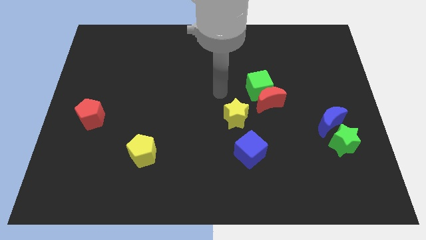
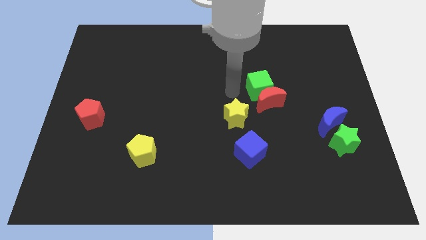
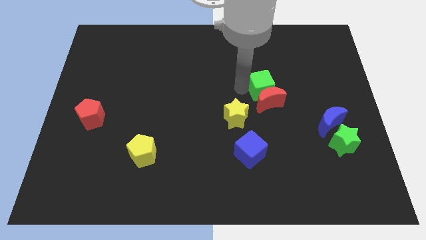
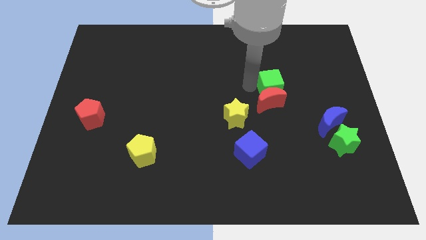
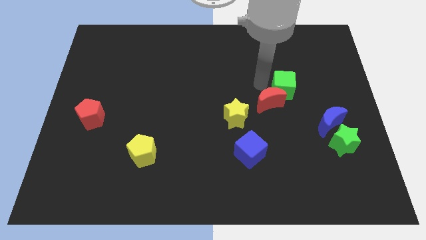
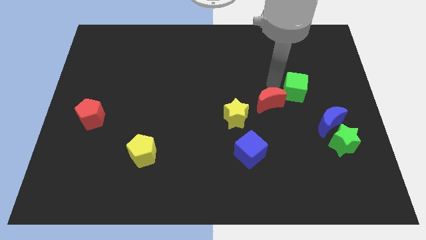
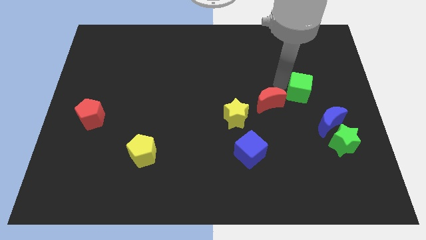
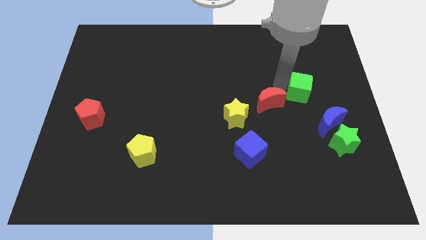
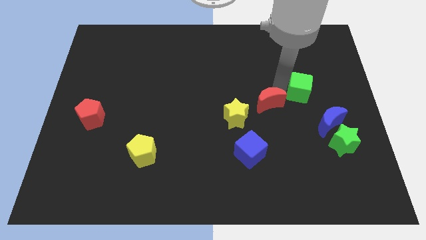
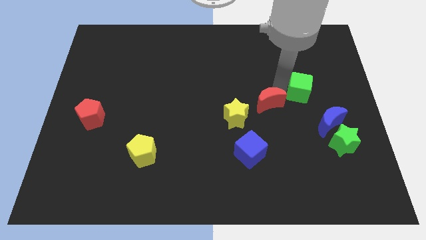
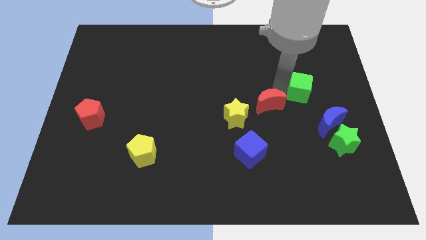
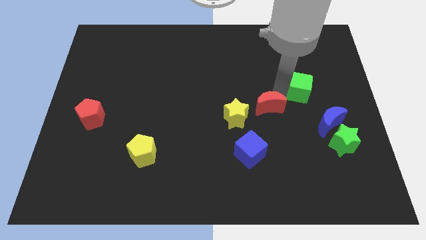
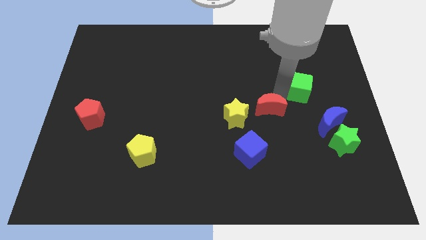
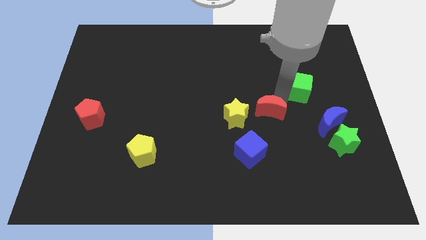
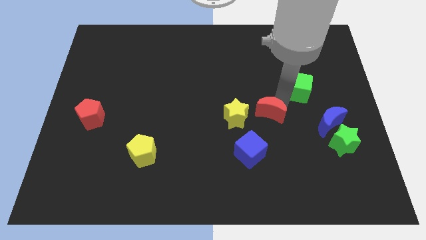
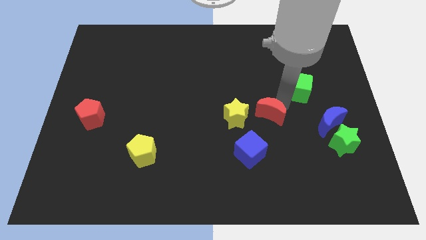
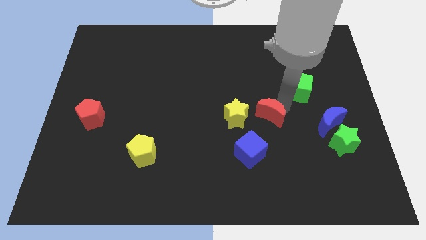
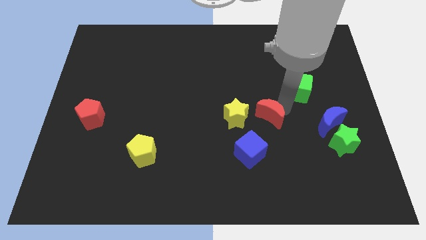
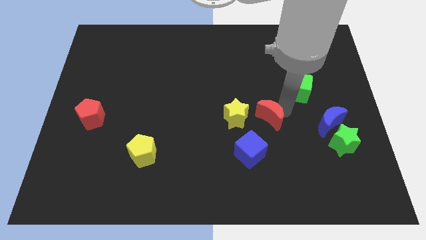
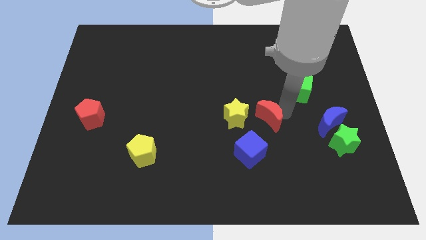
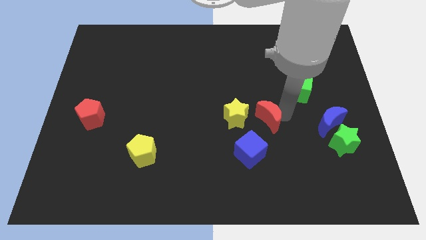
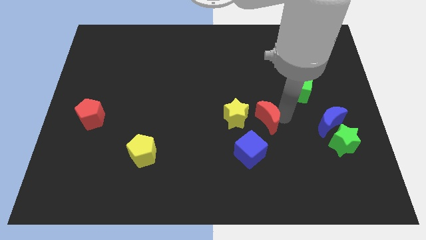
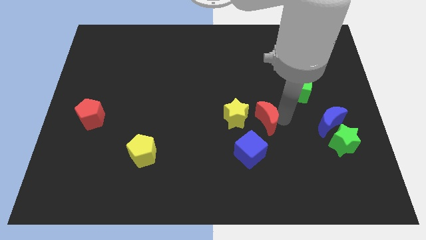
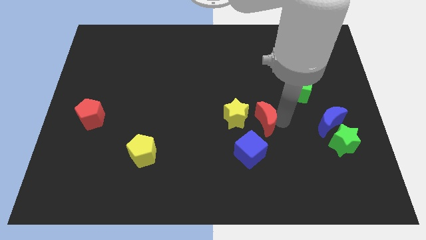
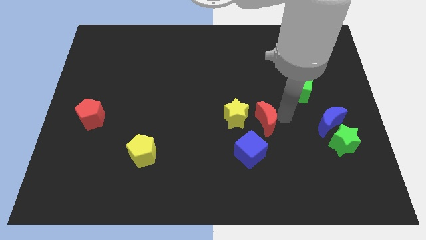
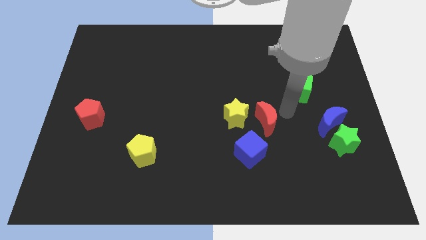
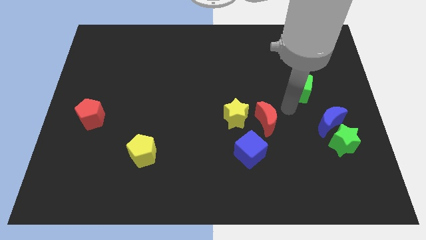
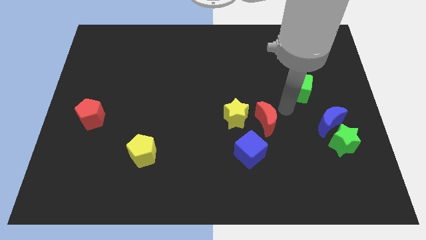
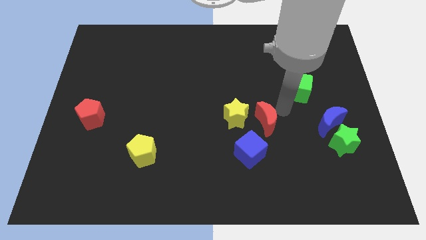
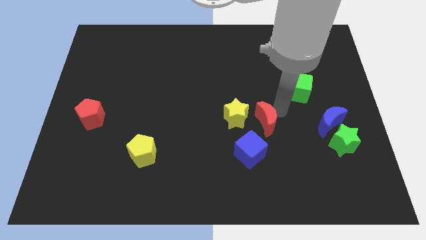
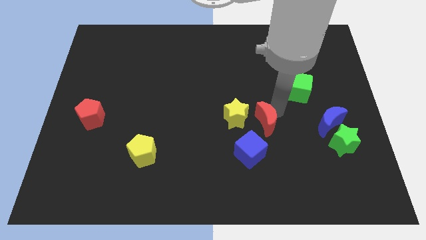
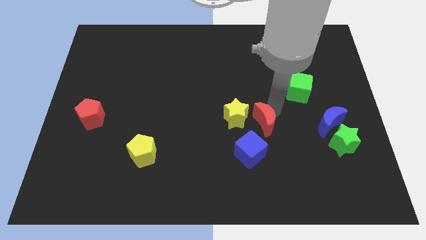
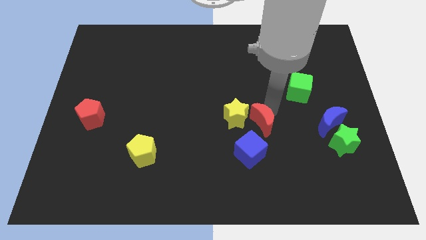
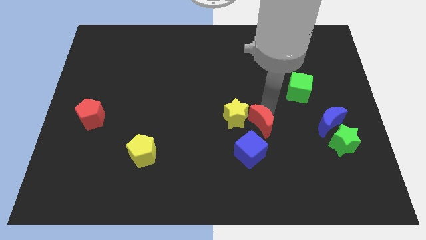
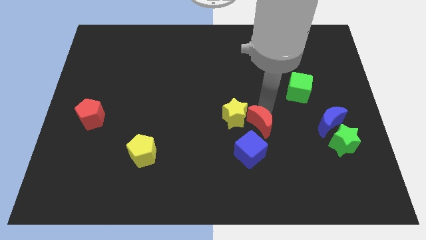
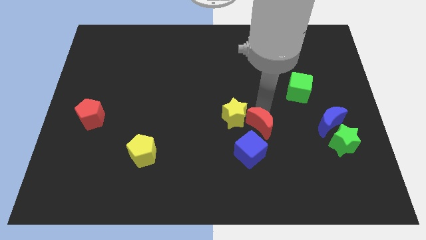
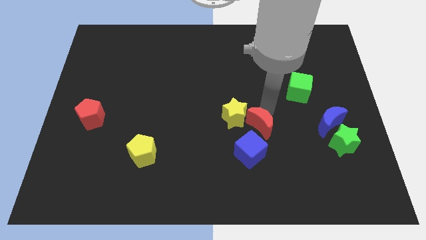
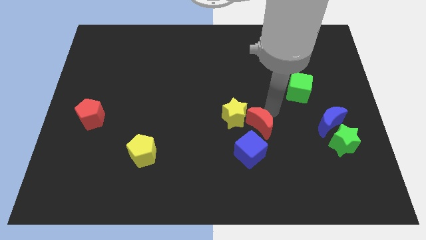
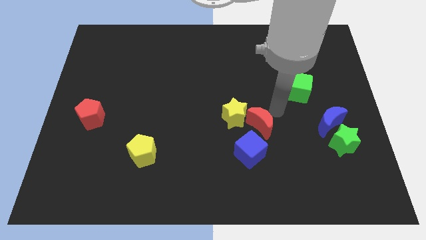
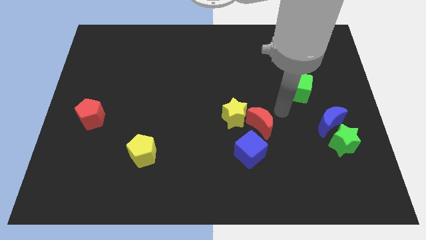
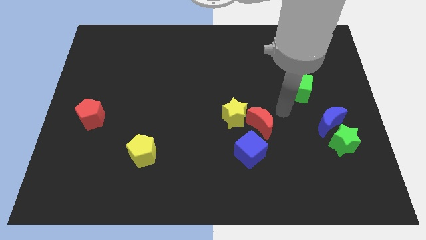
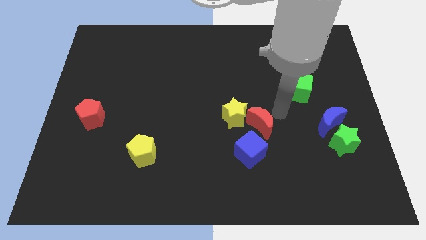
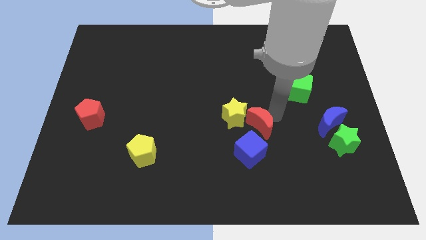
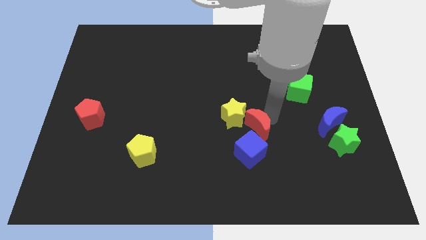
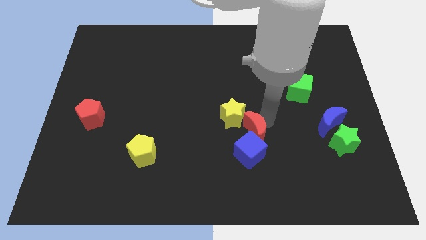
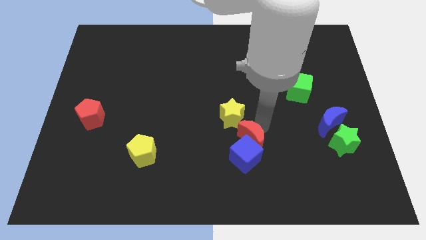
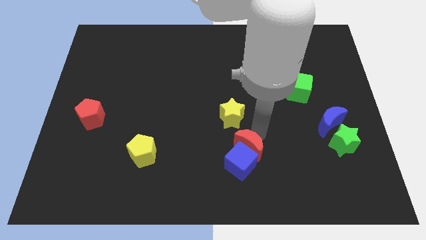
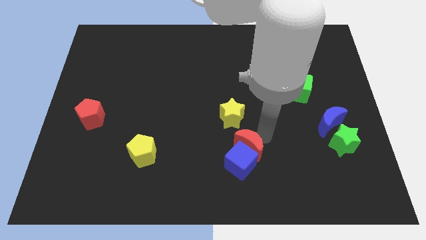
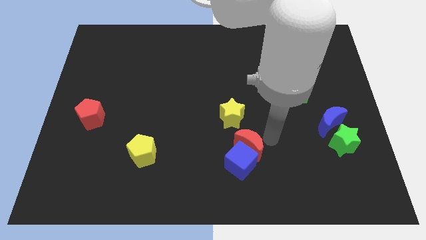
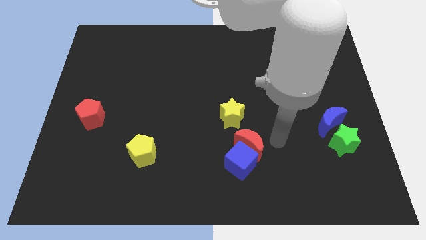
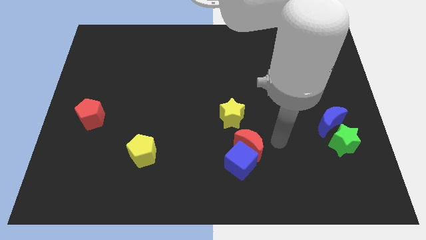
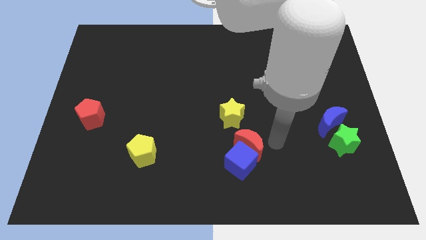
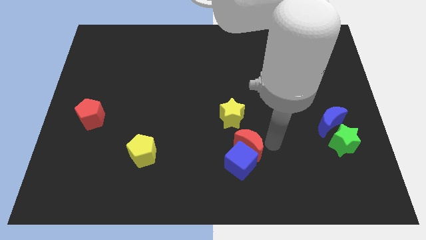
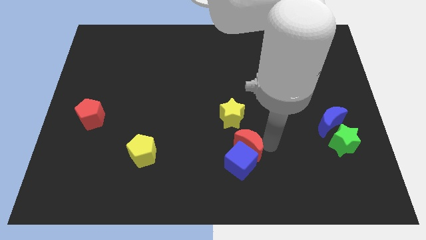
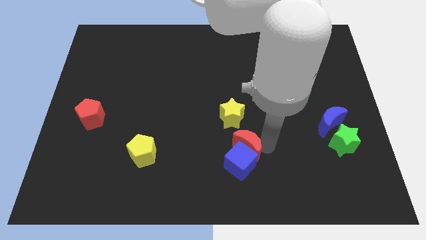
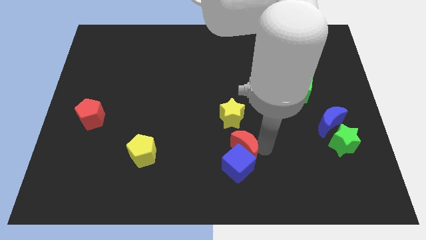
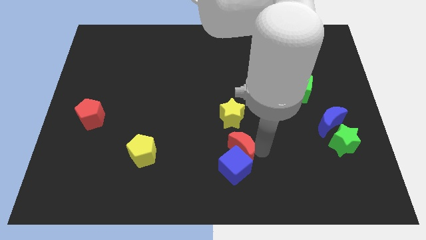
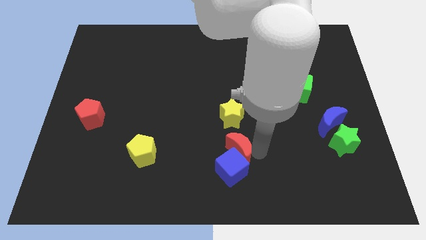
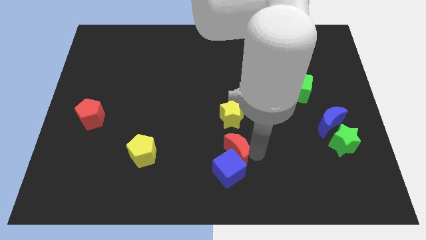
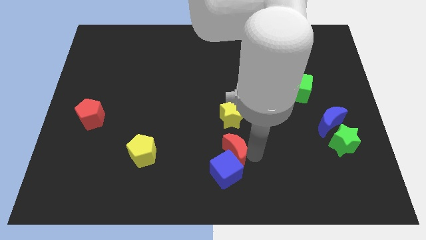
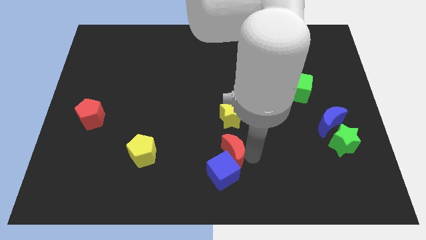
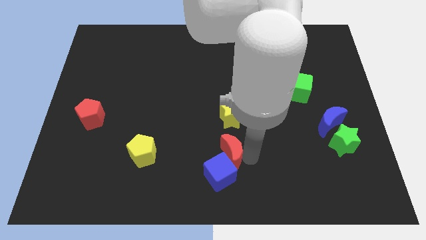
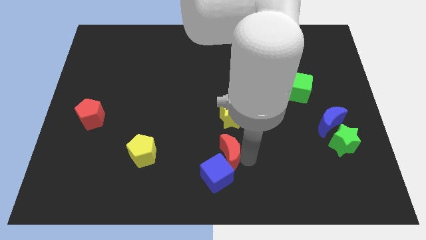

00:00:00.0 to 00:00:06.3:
move the red moon to the bottom side

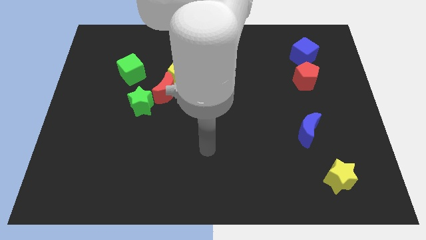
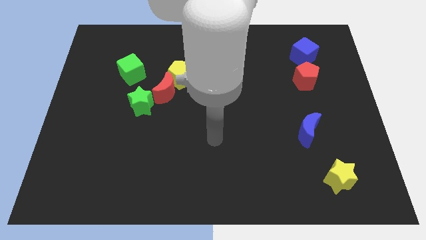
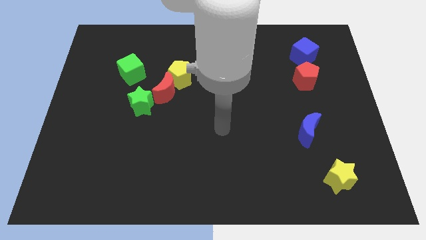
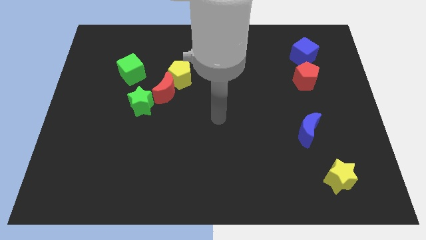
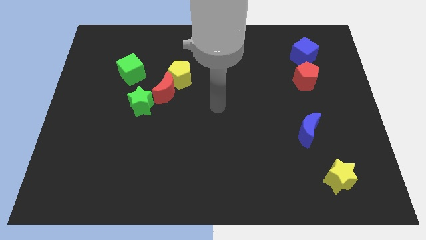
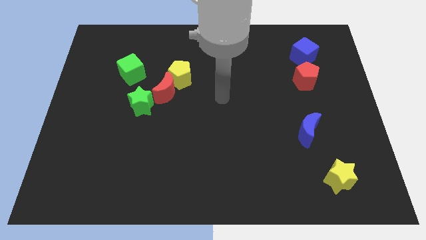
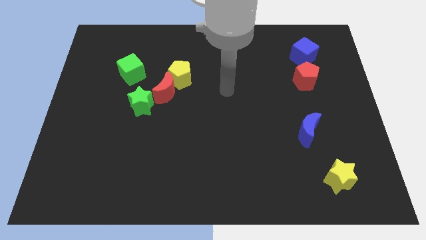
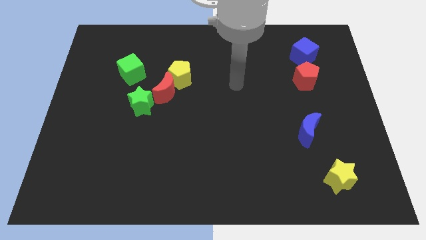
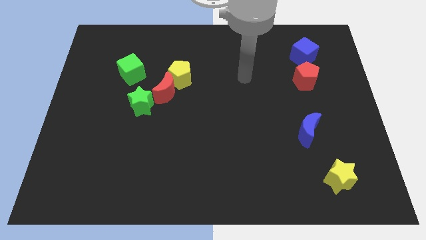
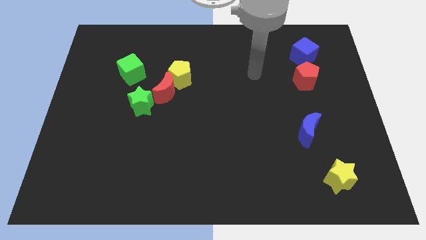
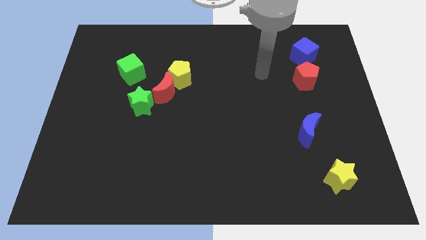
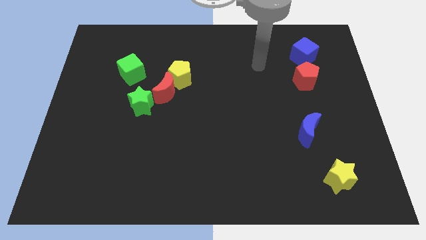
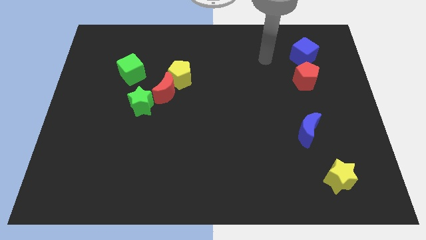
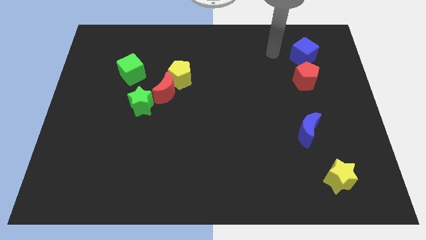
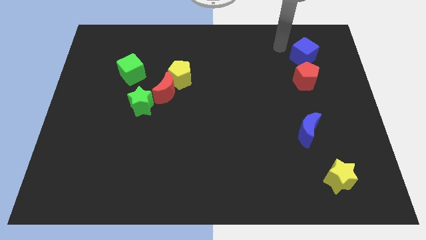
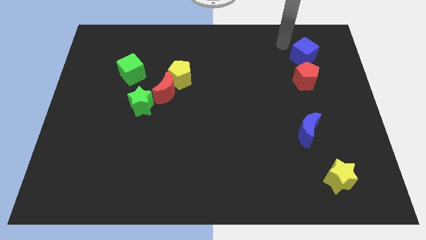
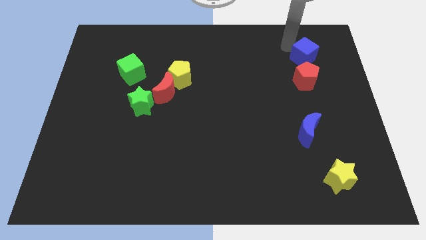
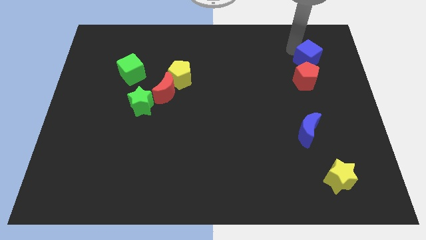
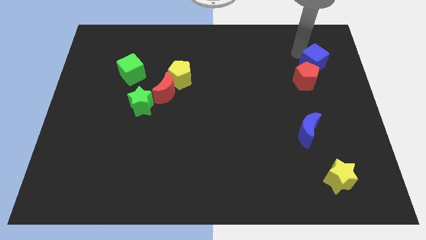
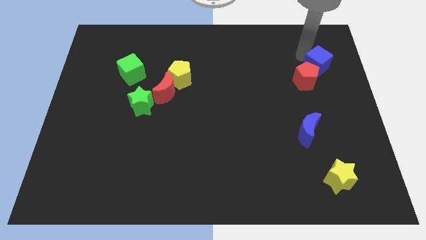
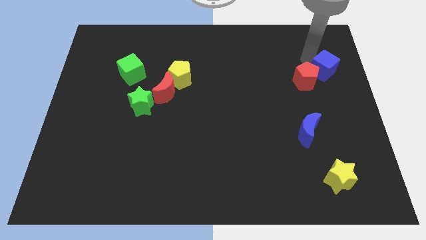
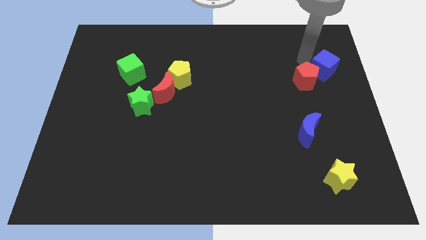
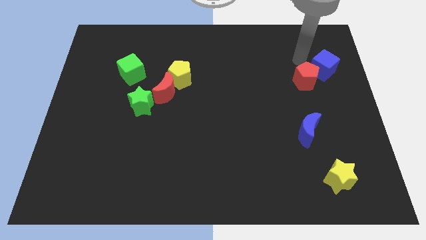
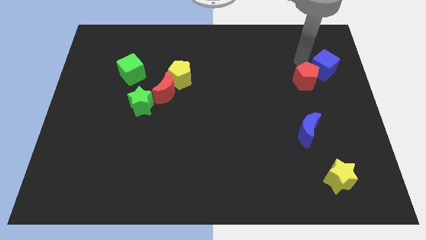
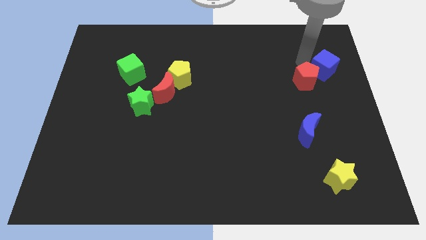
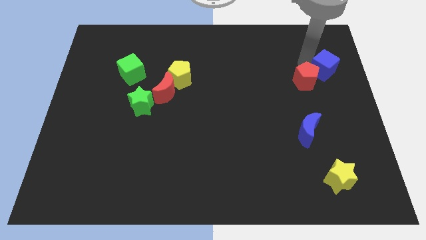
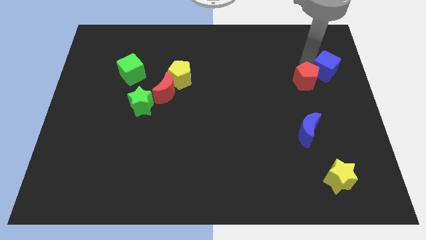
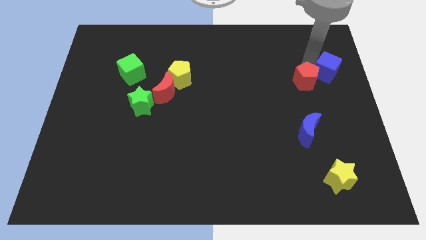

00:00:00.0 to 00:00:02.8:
put the blue cube to the right side of the board
